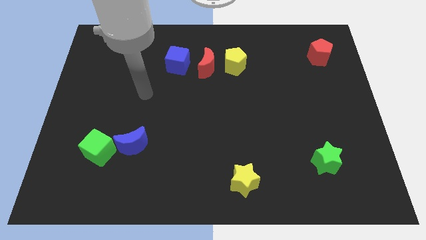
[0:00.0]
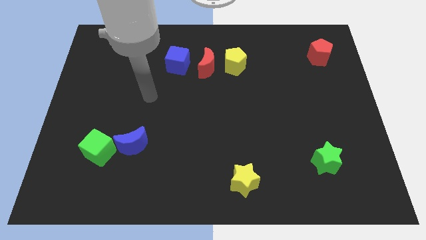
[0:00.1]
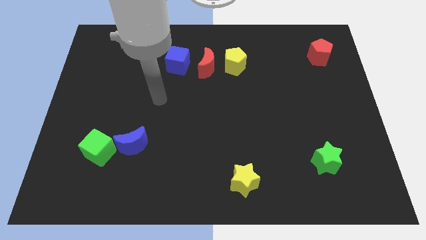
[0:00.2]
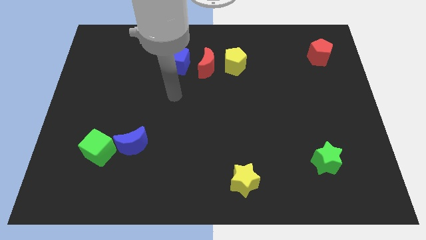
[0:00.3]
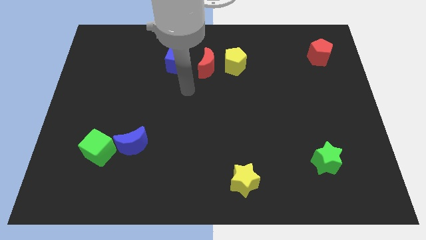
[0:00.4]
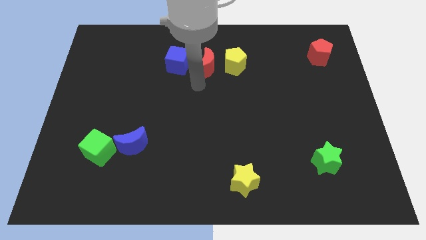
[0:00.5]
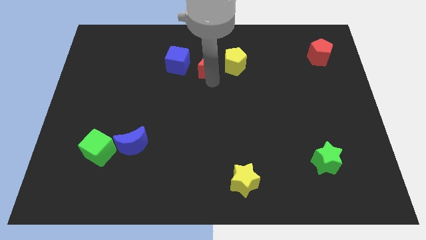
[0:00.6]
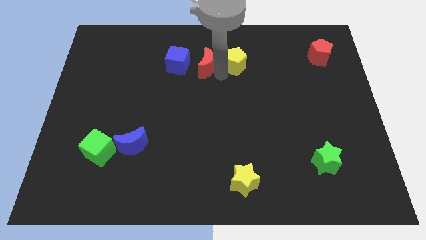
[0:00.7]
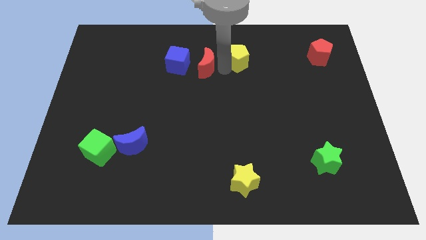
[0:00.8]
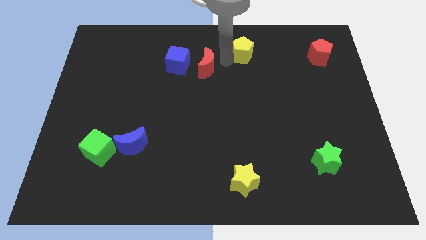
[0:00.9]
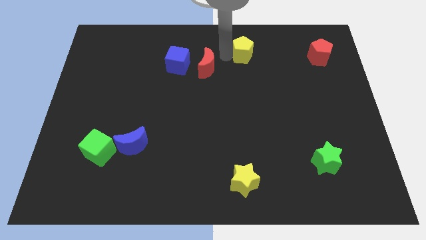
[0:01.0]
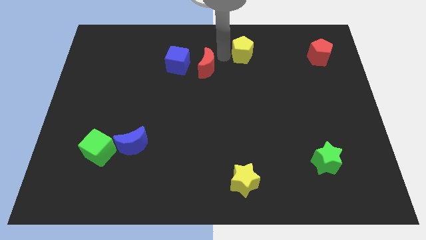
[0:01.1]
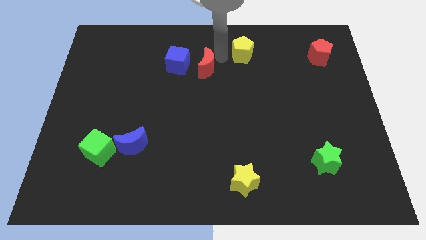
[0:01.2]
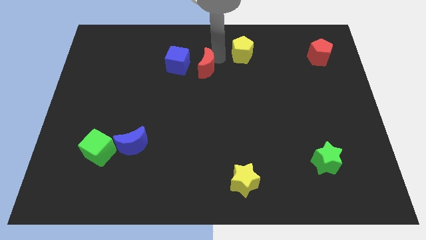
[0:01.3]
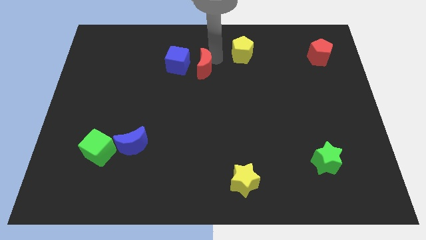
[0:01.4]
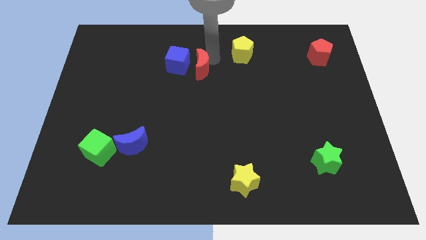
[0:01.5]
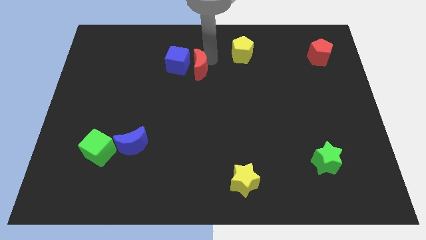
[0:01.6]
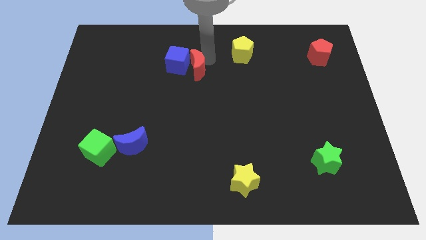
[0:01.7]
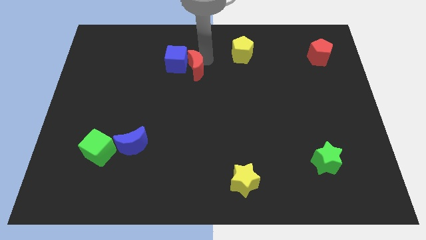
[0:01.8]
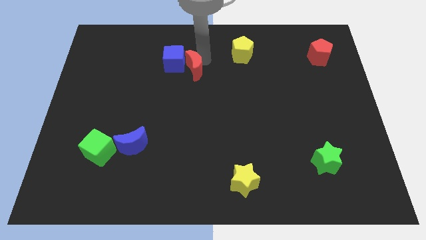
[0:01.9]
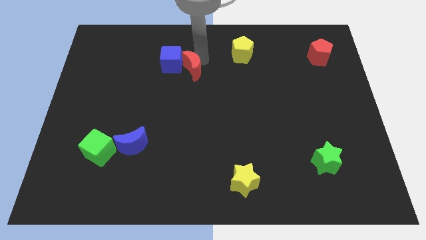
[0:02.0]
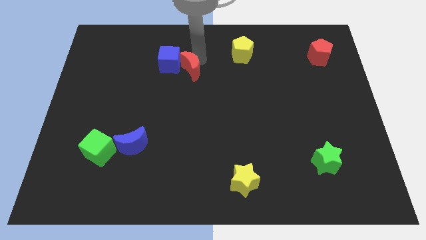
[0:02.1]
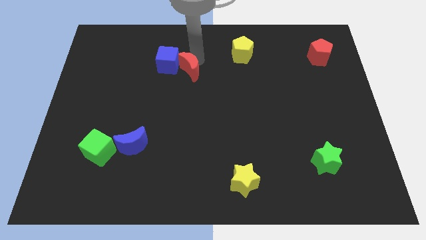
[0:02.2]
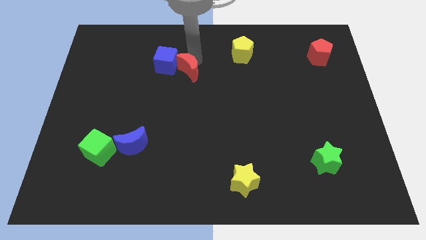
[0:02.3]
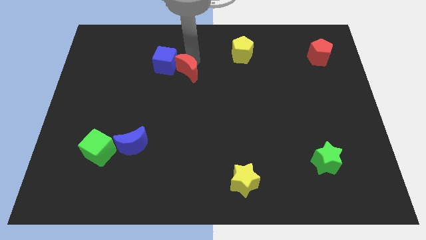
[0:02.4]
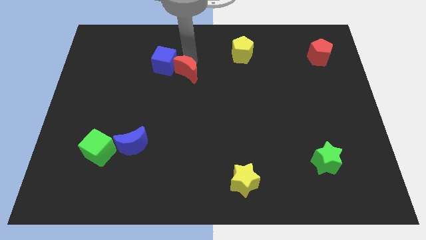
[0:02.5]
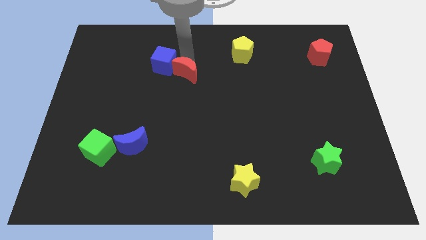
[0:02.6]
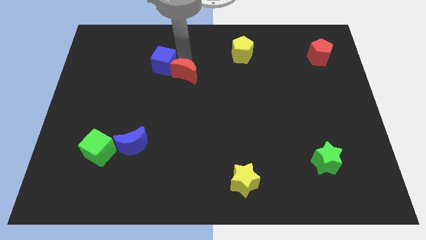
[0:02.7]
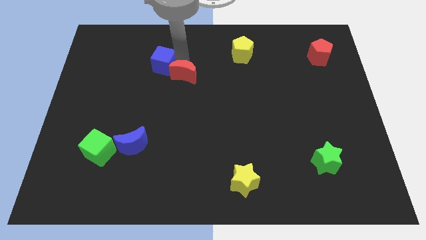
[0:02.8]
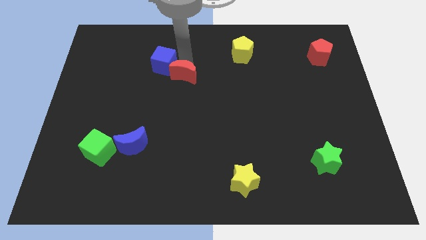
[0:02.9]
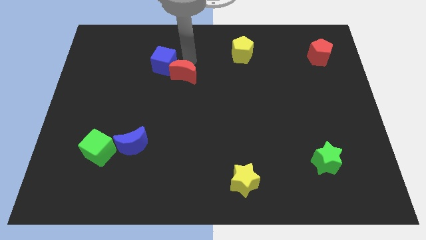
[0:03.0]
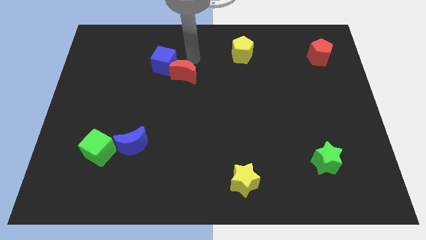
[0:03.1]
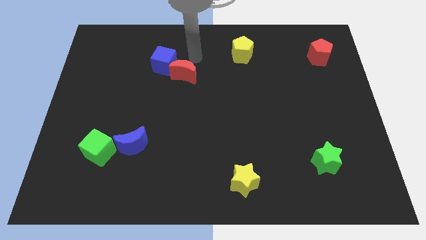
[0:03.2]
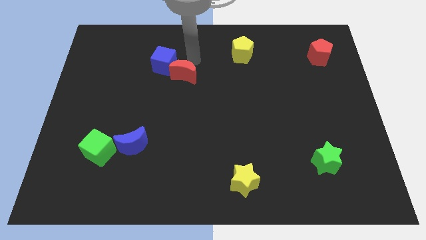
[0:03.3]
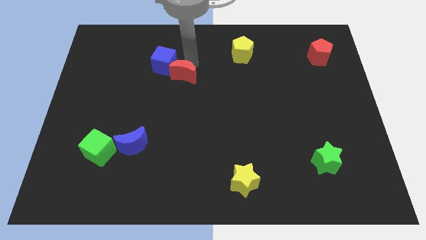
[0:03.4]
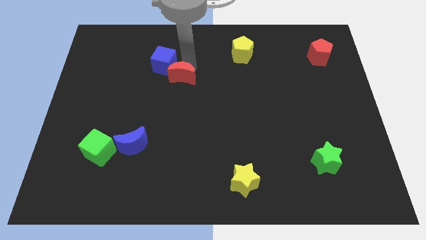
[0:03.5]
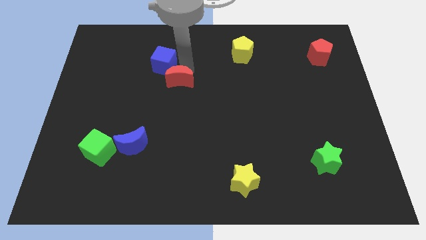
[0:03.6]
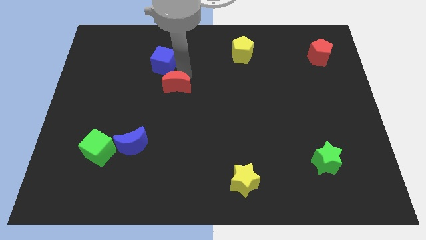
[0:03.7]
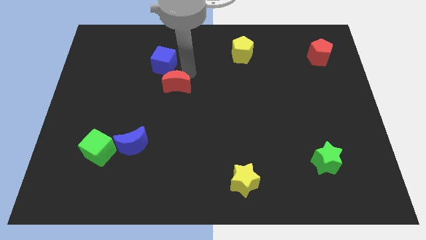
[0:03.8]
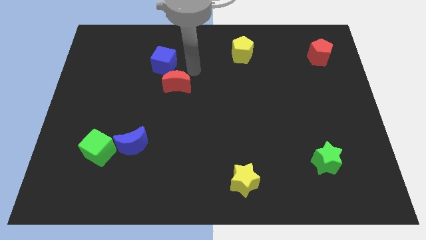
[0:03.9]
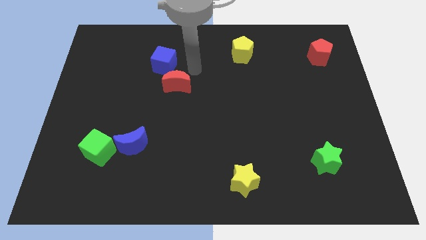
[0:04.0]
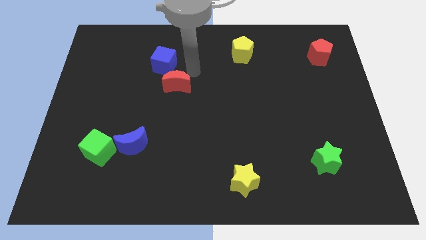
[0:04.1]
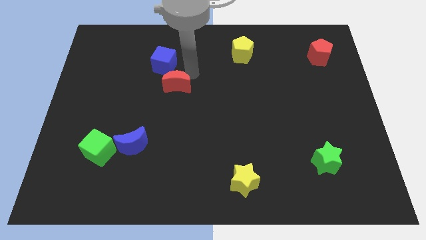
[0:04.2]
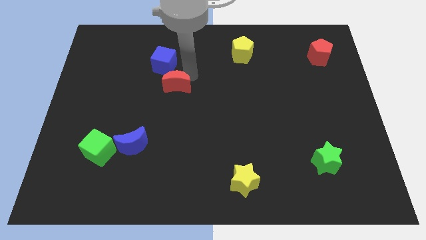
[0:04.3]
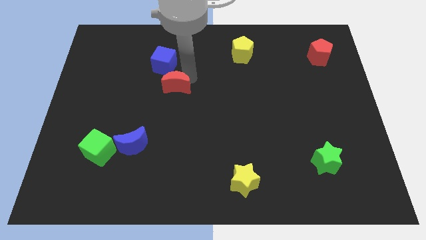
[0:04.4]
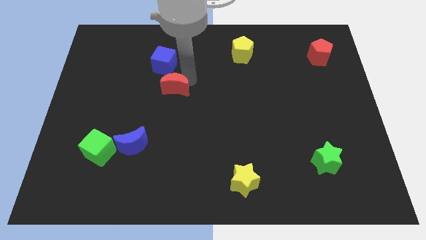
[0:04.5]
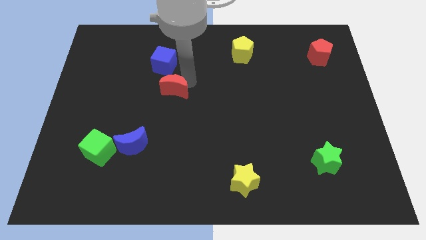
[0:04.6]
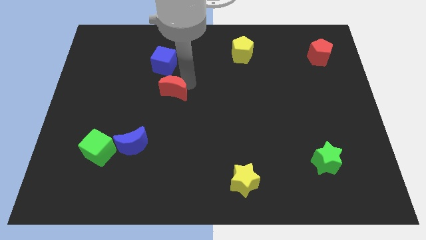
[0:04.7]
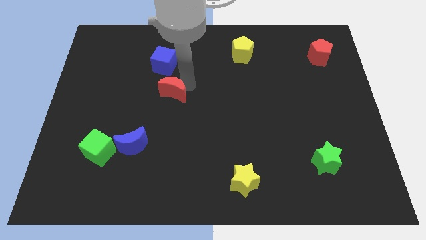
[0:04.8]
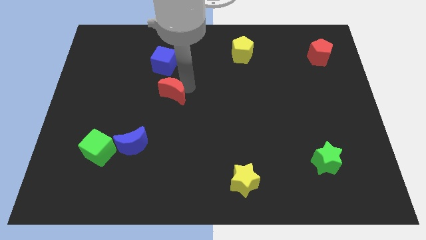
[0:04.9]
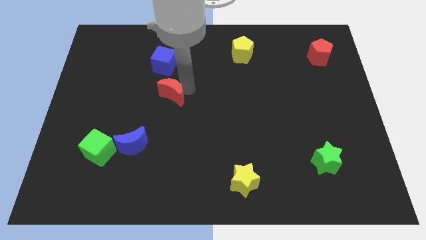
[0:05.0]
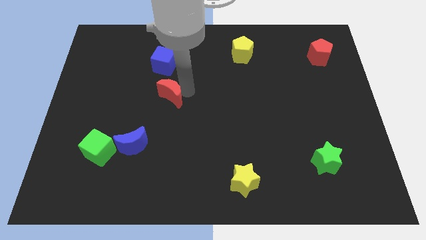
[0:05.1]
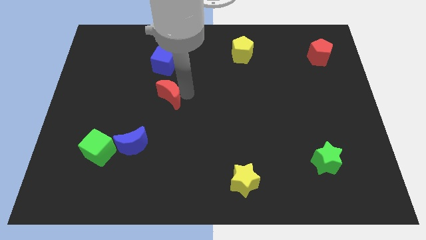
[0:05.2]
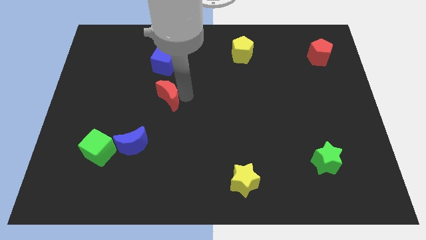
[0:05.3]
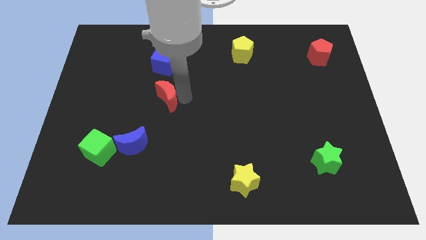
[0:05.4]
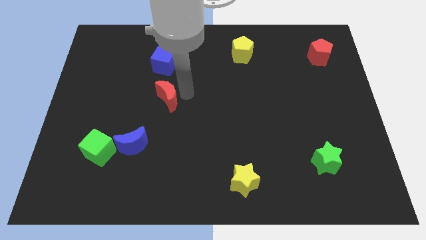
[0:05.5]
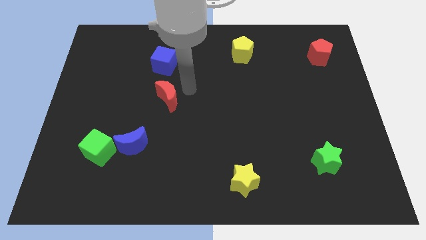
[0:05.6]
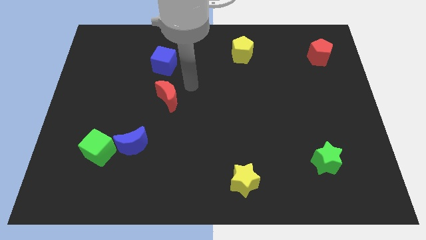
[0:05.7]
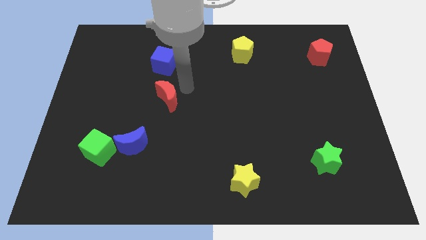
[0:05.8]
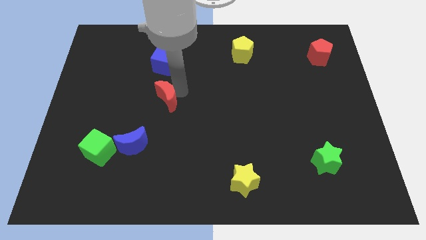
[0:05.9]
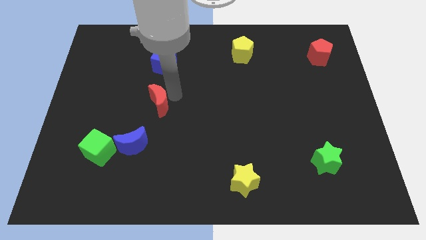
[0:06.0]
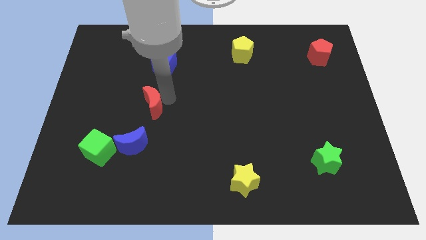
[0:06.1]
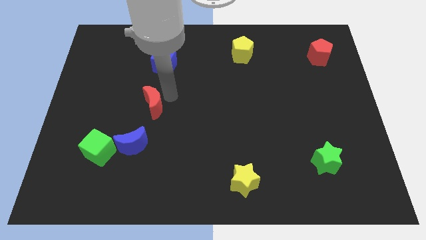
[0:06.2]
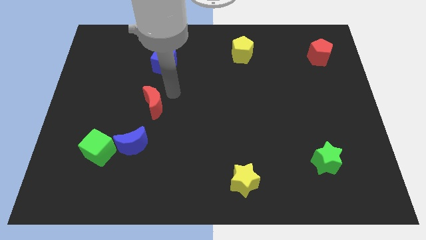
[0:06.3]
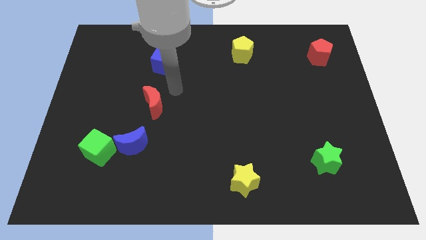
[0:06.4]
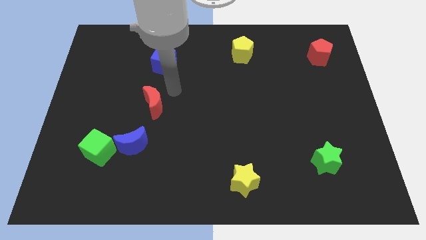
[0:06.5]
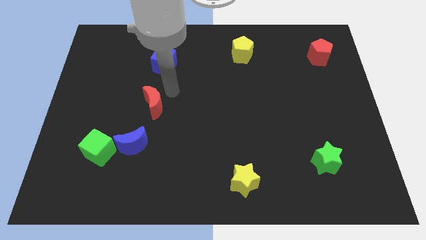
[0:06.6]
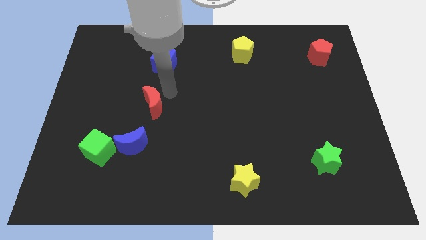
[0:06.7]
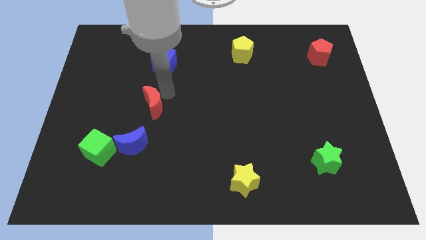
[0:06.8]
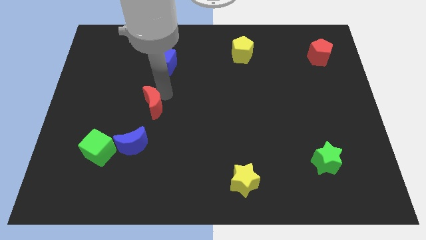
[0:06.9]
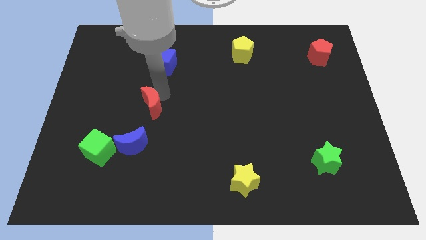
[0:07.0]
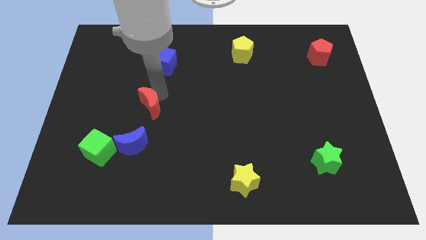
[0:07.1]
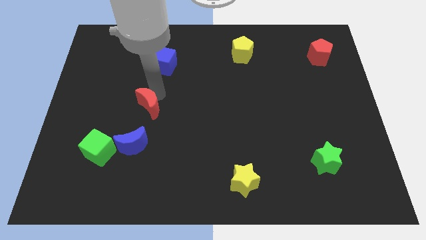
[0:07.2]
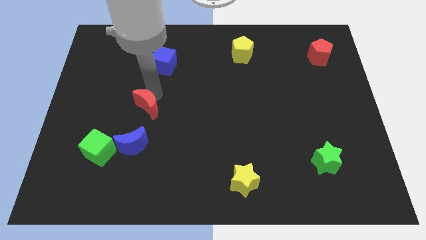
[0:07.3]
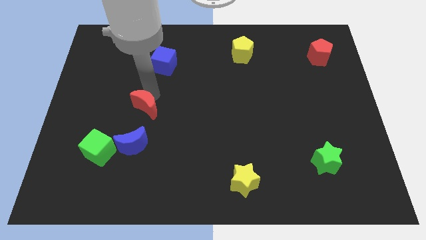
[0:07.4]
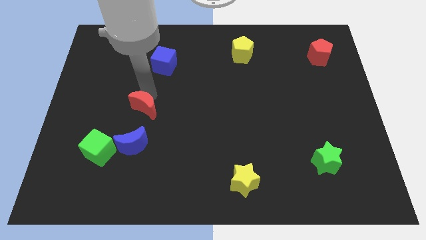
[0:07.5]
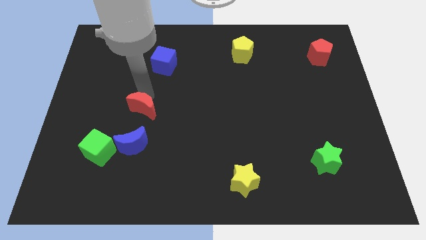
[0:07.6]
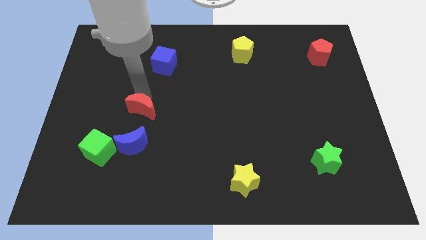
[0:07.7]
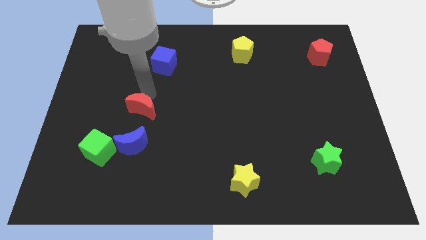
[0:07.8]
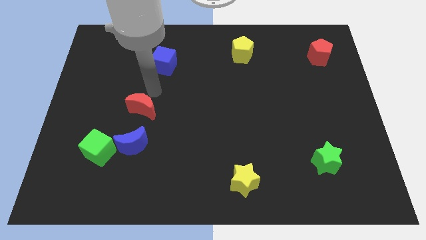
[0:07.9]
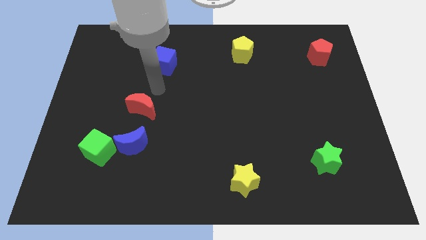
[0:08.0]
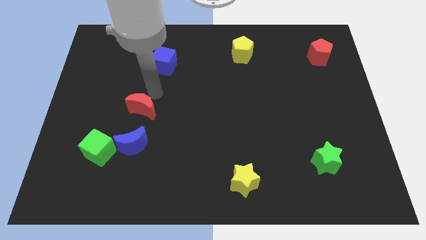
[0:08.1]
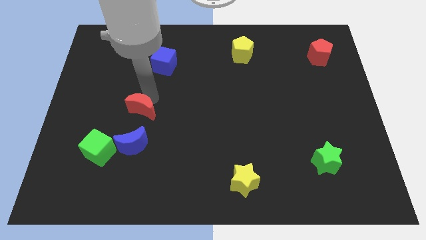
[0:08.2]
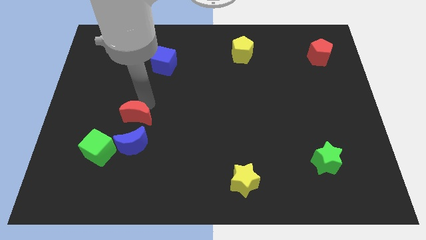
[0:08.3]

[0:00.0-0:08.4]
push the red moon to the top right side of the green cube

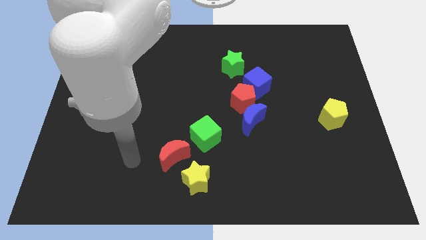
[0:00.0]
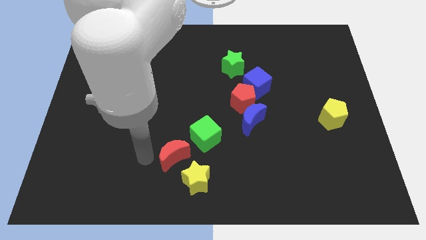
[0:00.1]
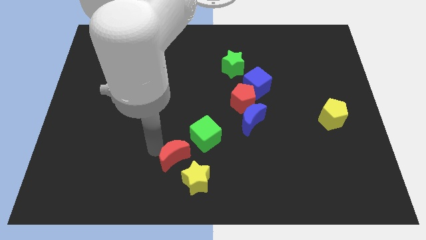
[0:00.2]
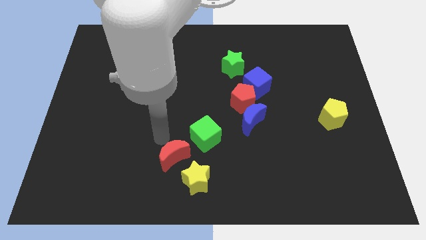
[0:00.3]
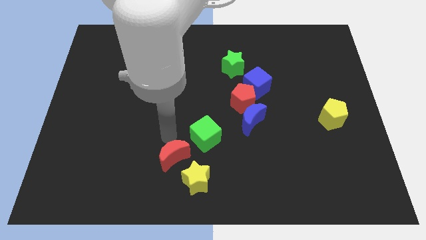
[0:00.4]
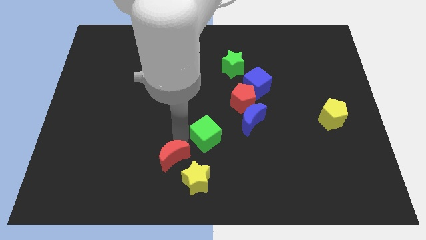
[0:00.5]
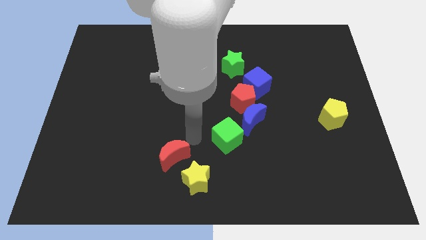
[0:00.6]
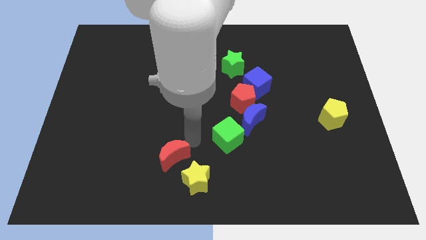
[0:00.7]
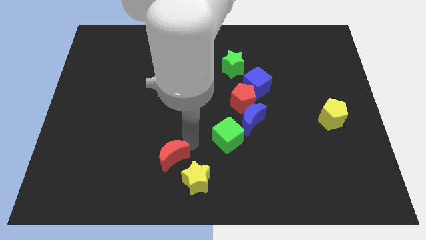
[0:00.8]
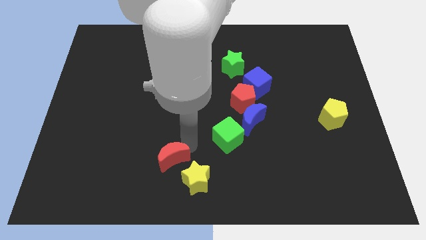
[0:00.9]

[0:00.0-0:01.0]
push the red moon to the left of the yellow star
